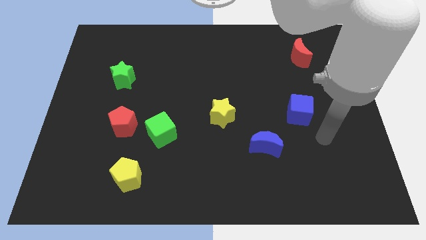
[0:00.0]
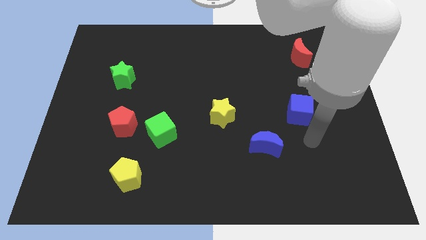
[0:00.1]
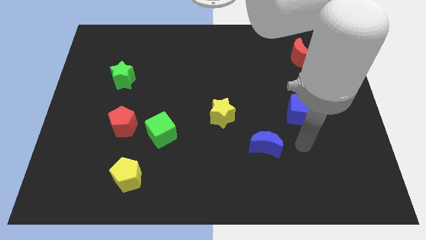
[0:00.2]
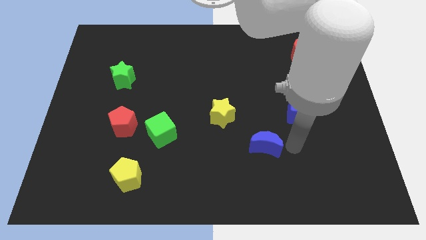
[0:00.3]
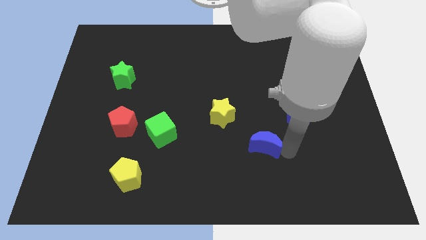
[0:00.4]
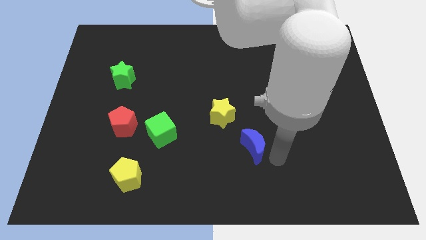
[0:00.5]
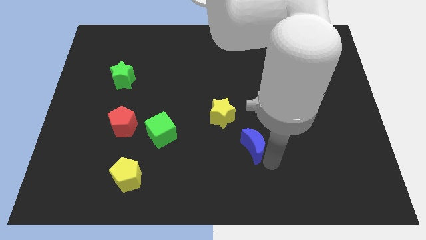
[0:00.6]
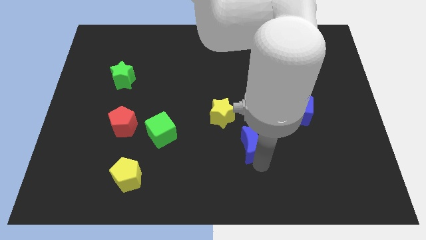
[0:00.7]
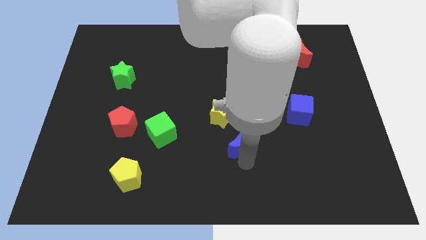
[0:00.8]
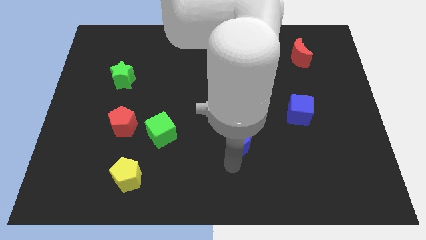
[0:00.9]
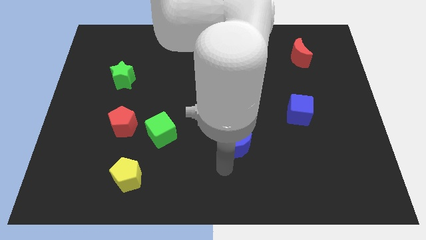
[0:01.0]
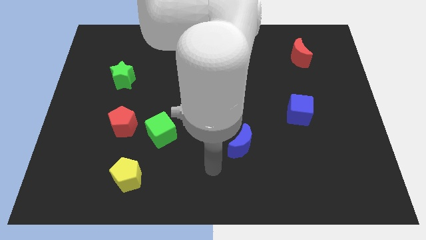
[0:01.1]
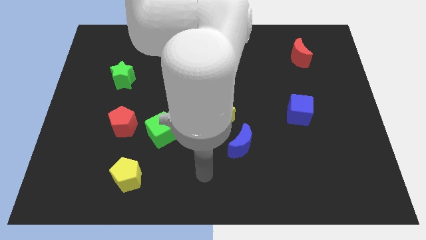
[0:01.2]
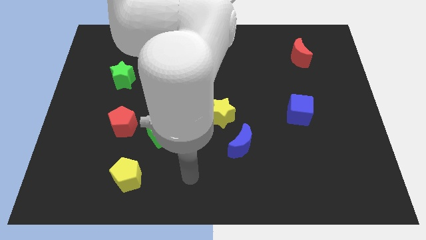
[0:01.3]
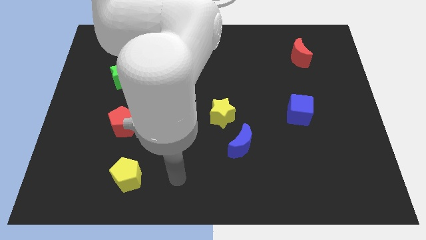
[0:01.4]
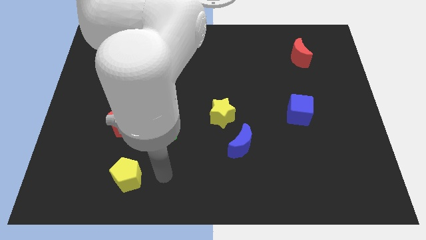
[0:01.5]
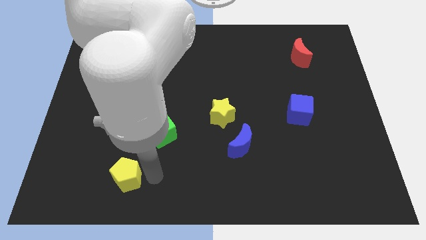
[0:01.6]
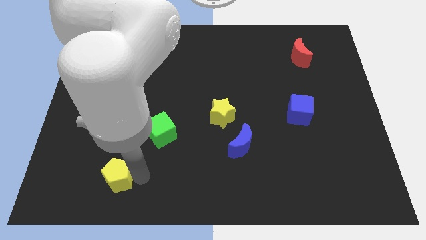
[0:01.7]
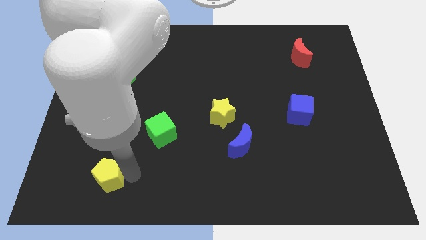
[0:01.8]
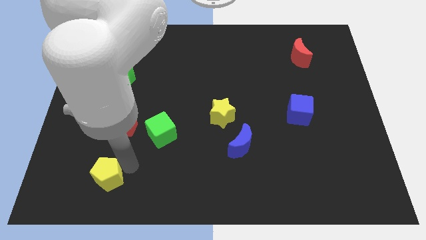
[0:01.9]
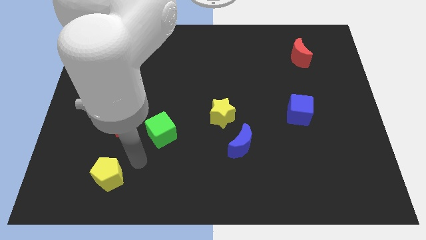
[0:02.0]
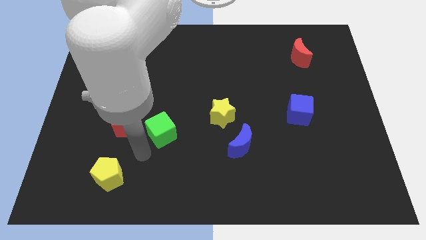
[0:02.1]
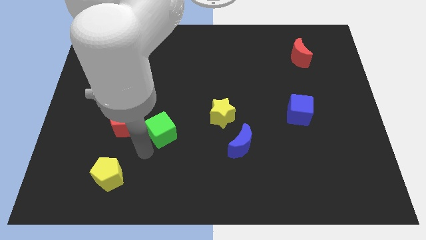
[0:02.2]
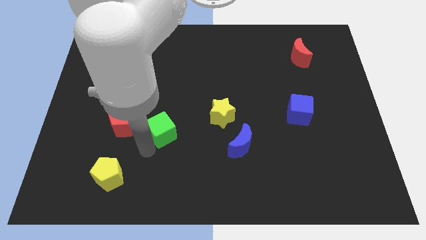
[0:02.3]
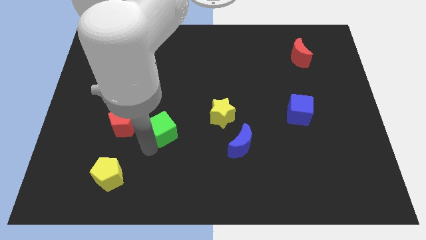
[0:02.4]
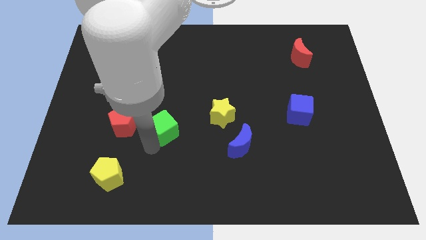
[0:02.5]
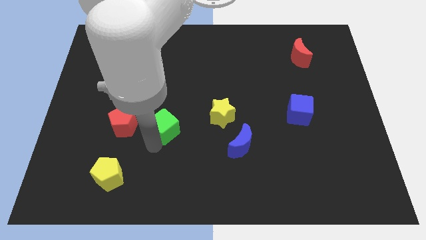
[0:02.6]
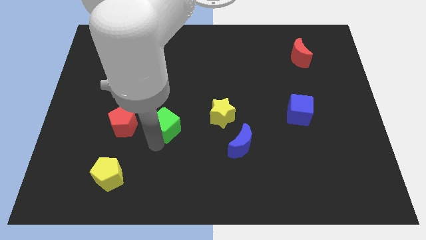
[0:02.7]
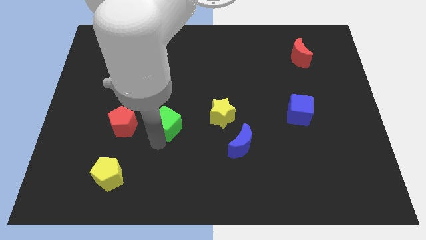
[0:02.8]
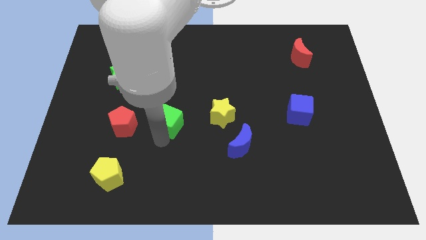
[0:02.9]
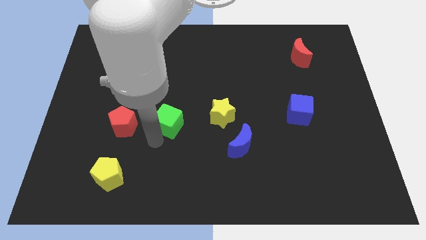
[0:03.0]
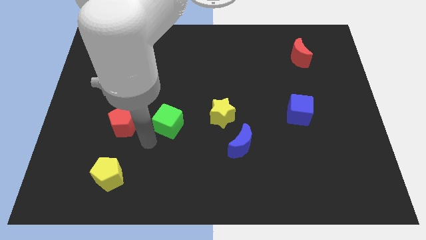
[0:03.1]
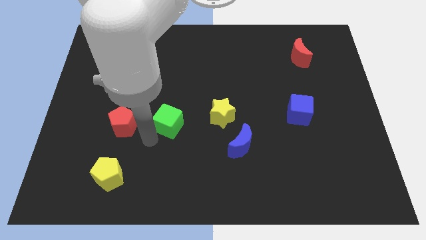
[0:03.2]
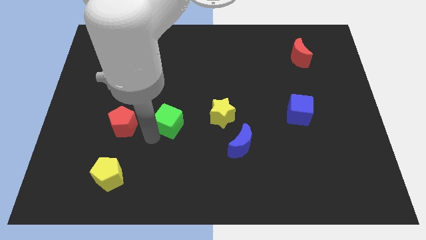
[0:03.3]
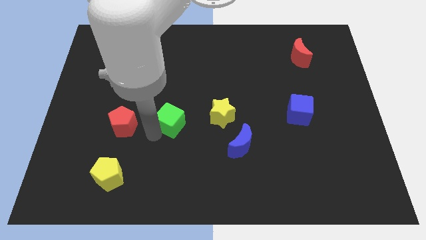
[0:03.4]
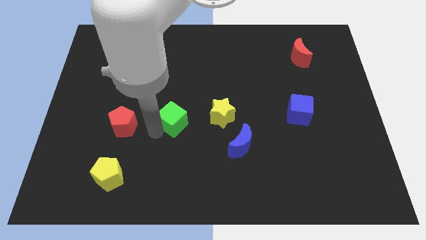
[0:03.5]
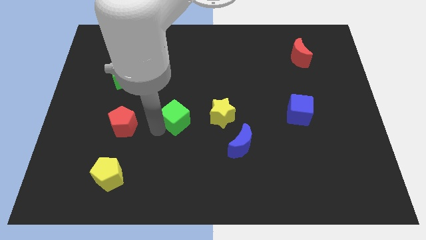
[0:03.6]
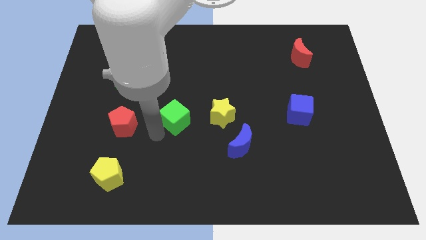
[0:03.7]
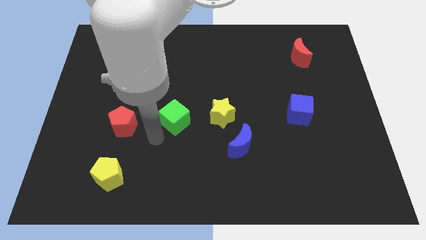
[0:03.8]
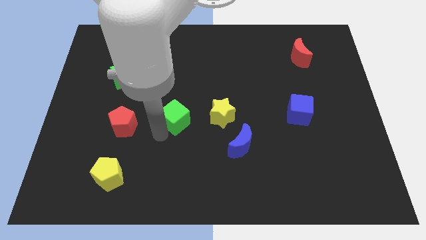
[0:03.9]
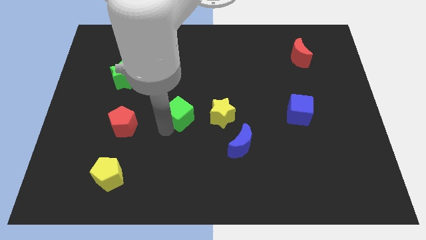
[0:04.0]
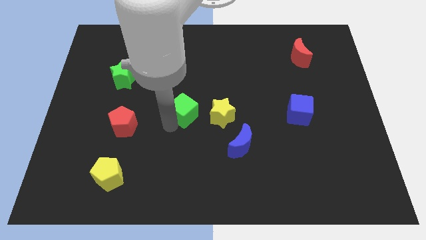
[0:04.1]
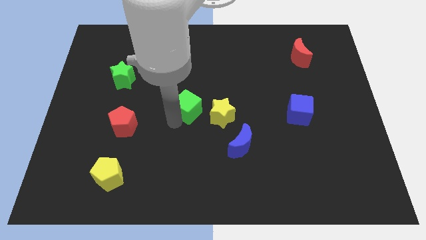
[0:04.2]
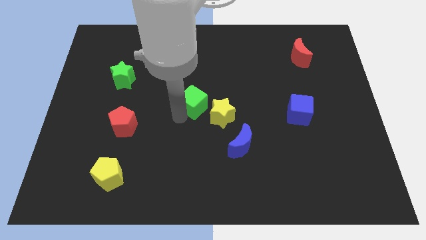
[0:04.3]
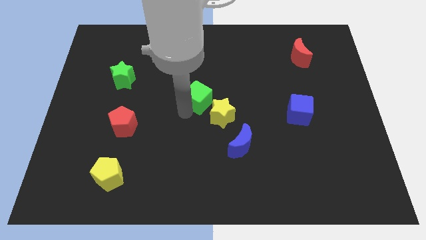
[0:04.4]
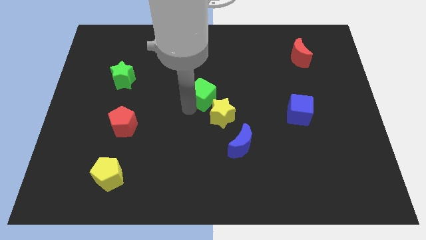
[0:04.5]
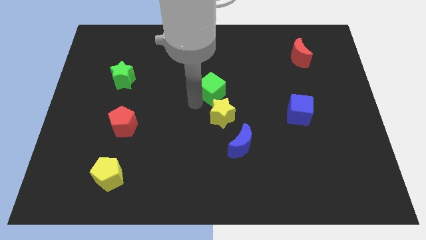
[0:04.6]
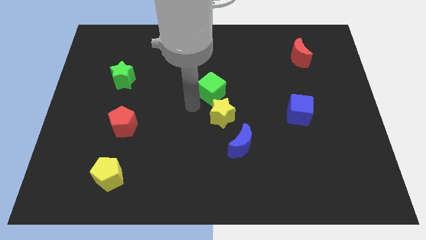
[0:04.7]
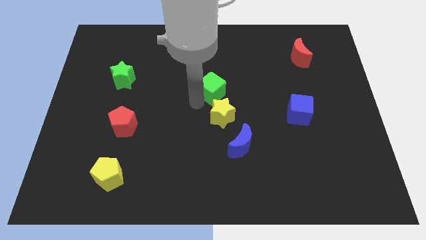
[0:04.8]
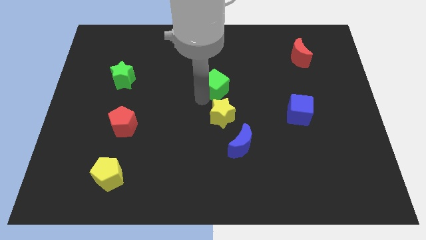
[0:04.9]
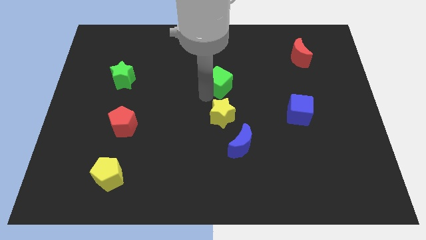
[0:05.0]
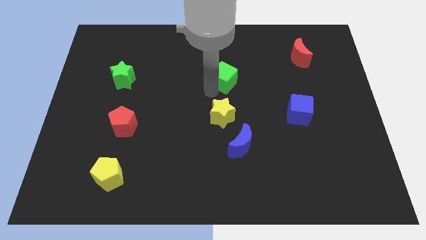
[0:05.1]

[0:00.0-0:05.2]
push the green cube upwards and to the right

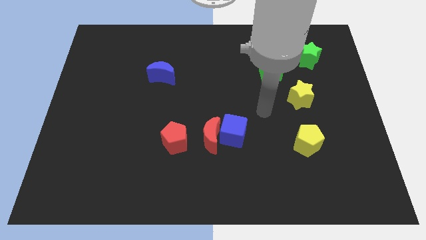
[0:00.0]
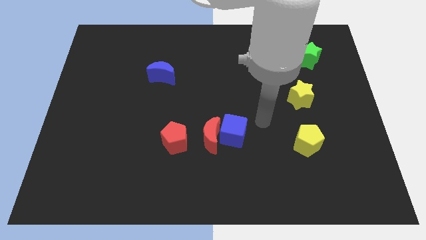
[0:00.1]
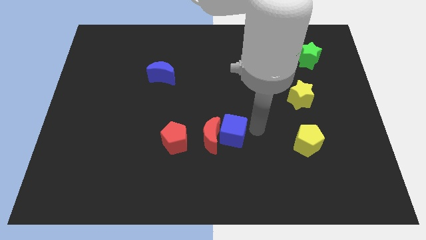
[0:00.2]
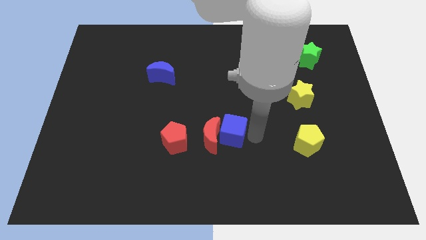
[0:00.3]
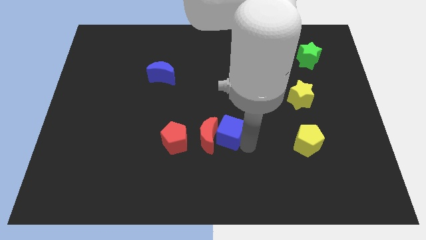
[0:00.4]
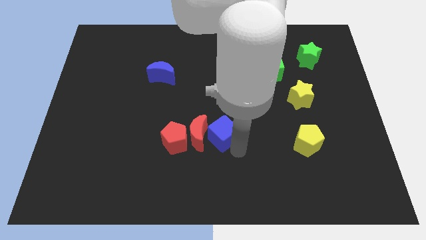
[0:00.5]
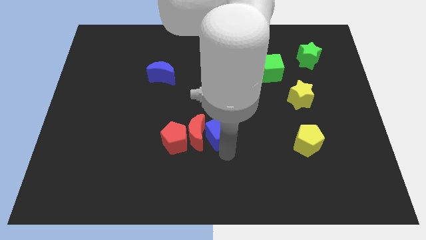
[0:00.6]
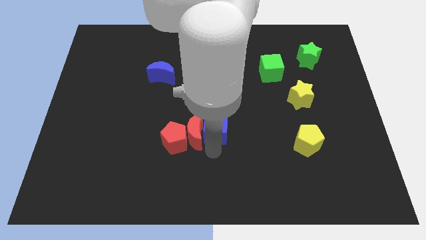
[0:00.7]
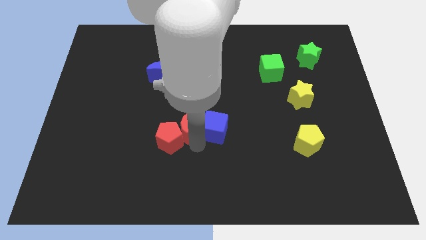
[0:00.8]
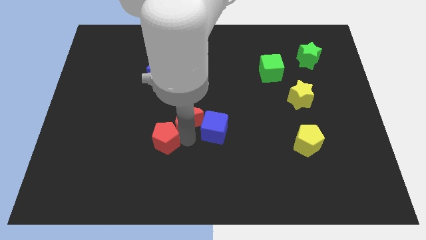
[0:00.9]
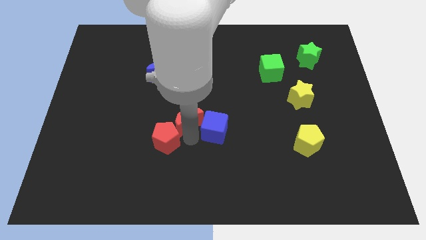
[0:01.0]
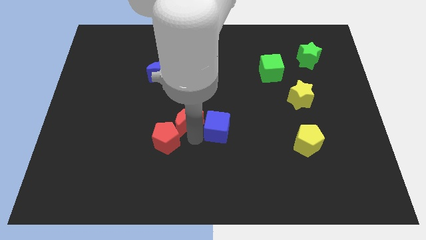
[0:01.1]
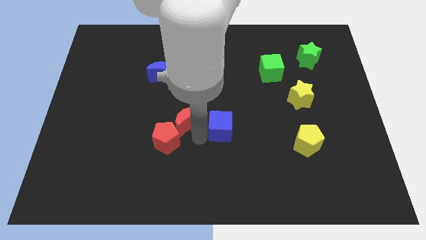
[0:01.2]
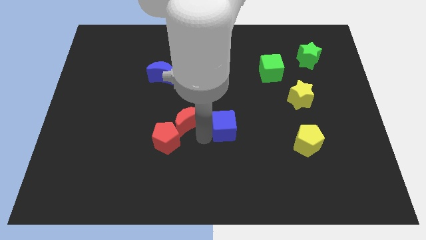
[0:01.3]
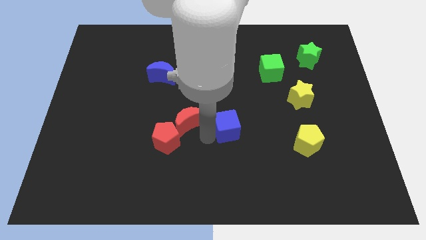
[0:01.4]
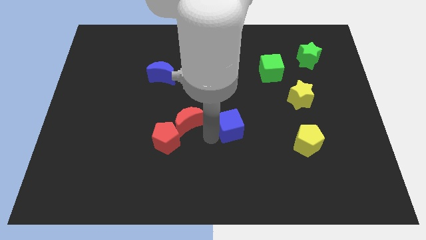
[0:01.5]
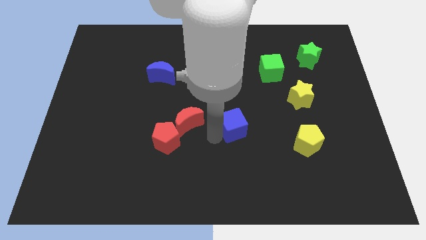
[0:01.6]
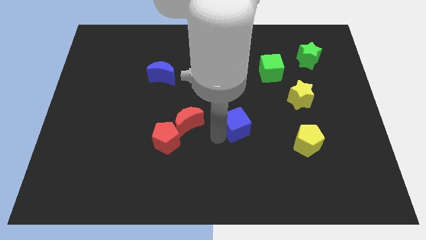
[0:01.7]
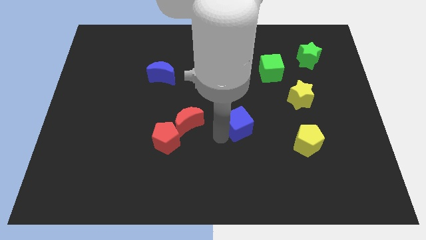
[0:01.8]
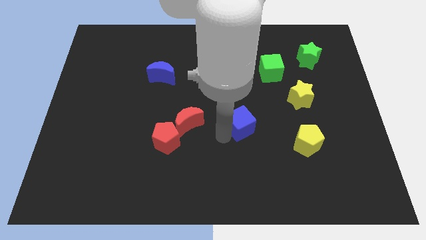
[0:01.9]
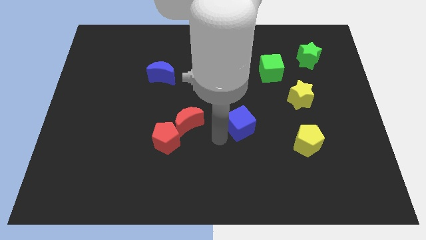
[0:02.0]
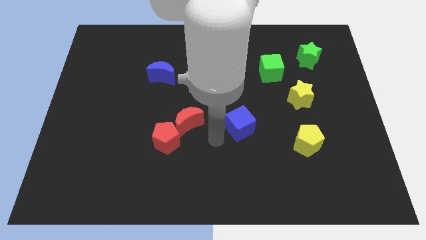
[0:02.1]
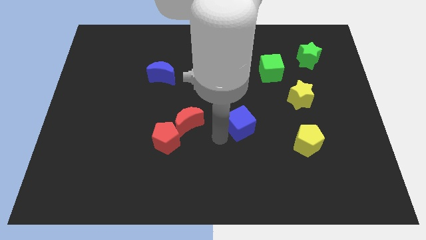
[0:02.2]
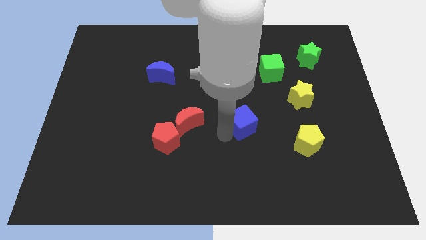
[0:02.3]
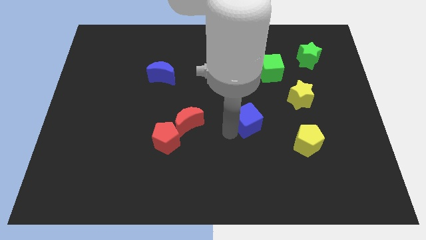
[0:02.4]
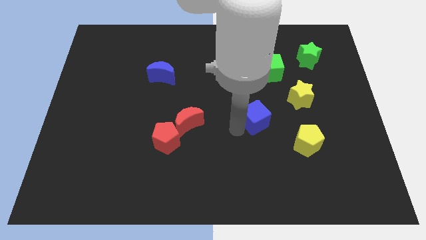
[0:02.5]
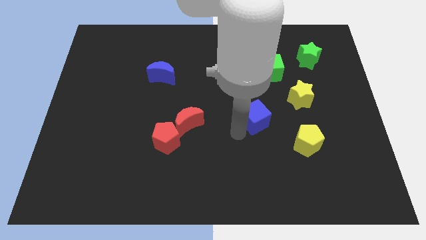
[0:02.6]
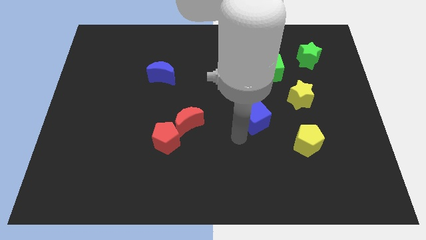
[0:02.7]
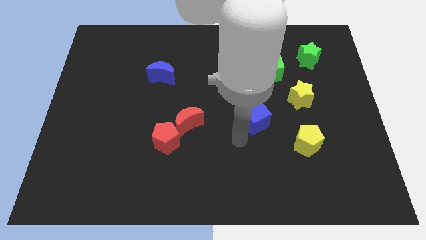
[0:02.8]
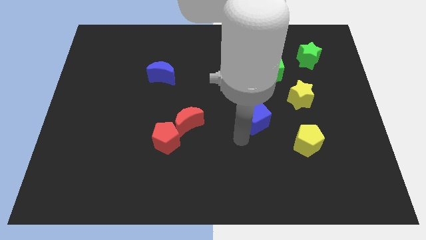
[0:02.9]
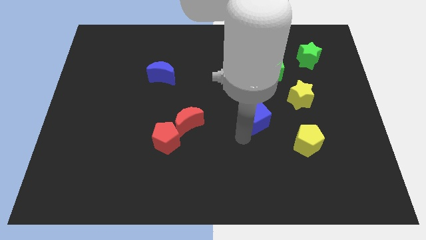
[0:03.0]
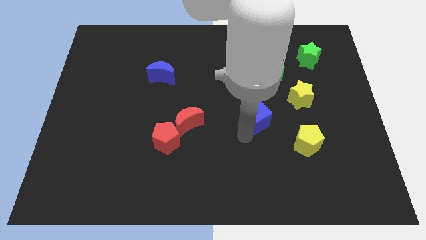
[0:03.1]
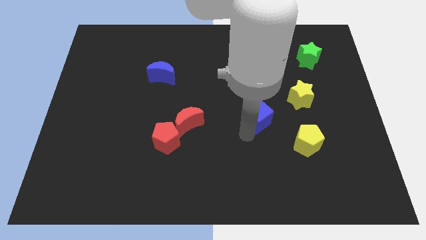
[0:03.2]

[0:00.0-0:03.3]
slightly slide the blue cube up and then to the right
